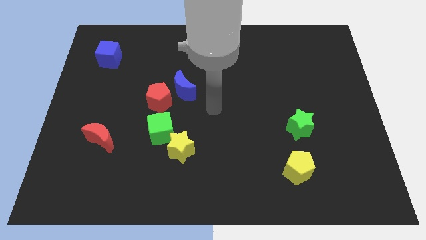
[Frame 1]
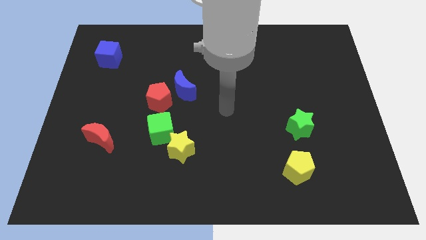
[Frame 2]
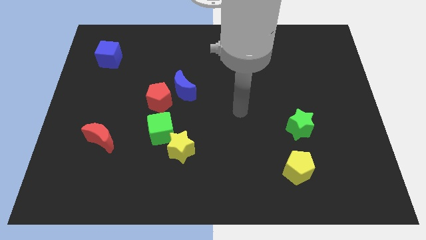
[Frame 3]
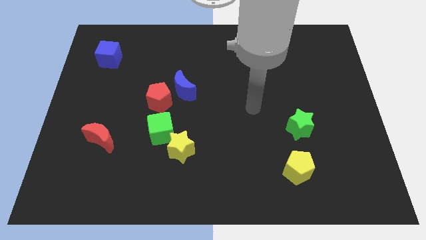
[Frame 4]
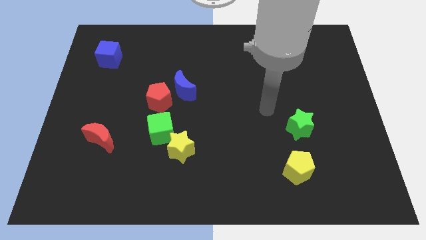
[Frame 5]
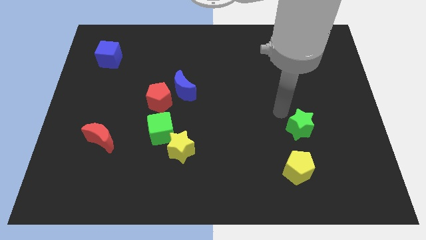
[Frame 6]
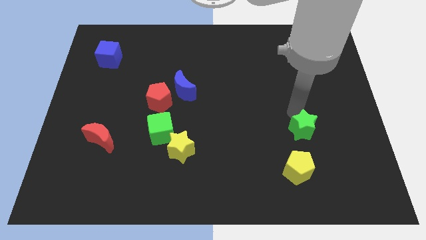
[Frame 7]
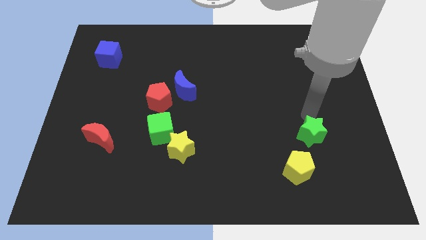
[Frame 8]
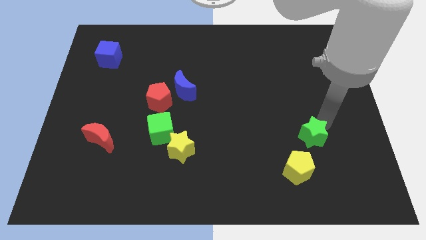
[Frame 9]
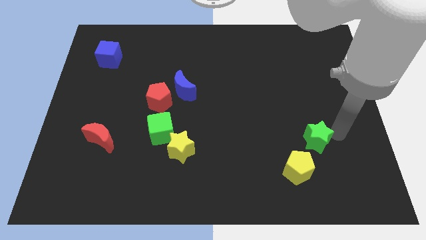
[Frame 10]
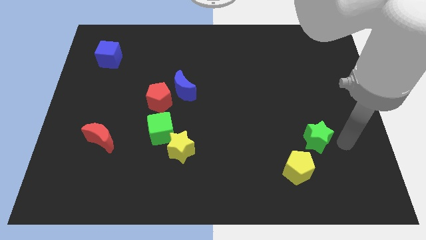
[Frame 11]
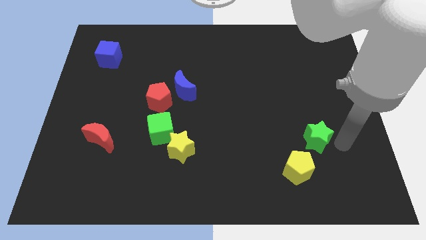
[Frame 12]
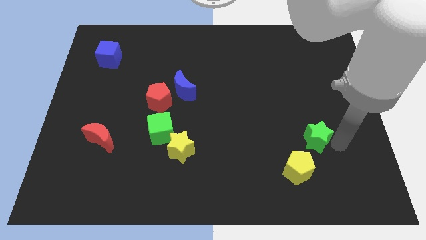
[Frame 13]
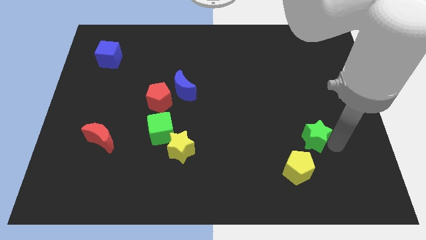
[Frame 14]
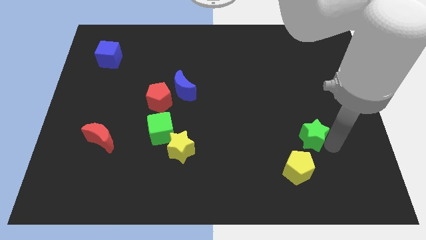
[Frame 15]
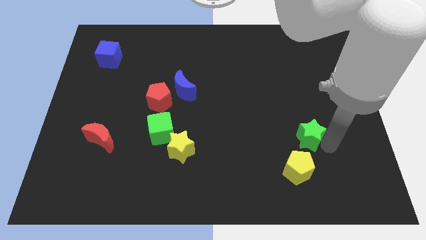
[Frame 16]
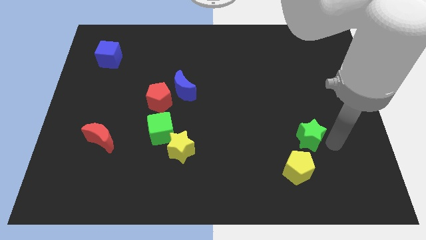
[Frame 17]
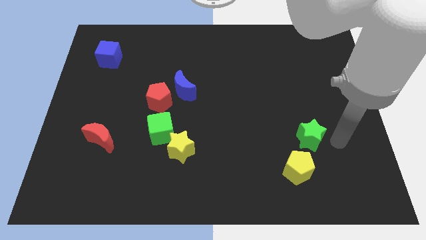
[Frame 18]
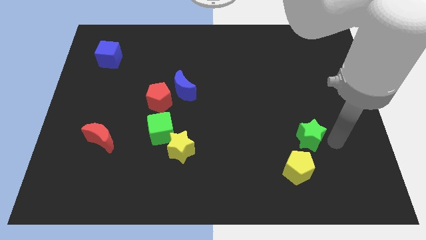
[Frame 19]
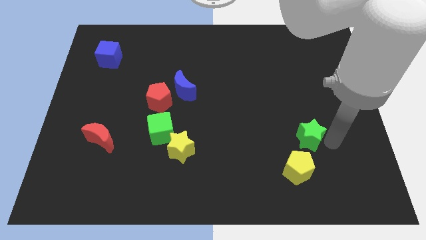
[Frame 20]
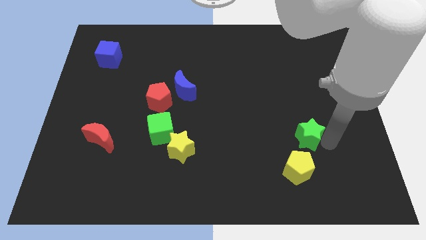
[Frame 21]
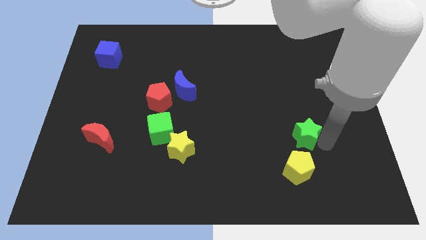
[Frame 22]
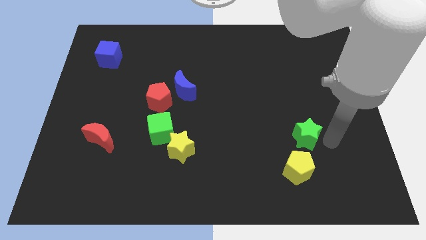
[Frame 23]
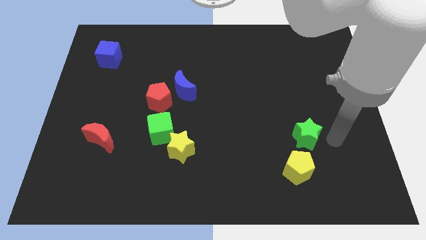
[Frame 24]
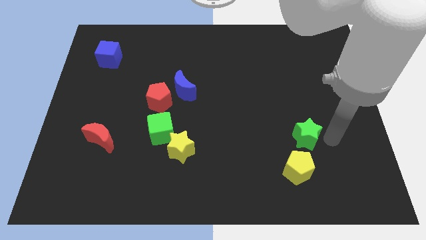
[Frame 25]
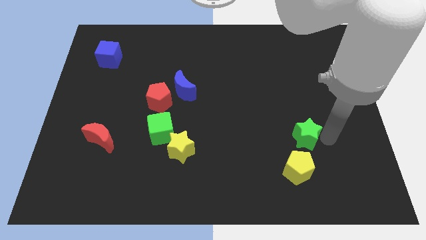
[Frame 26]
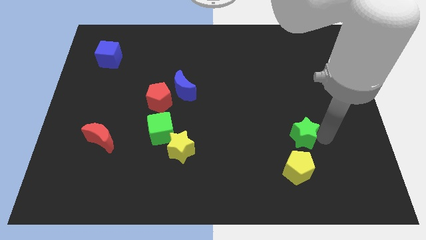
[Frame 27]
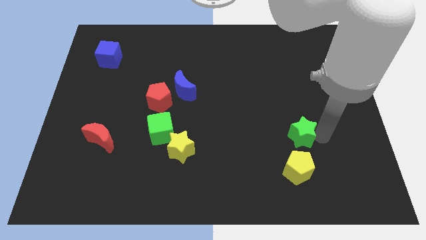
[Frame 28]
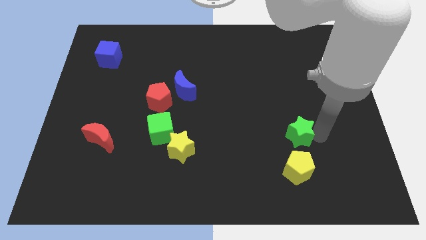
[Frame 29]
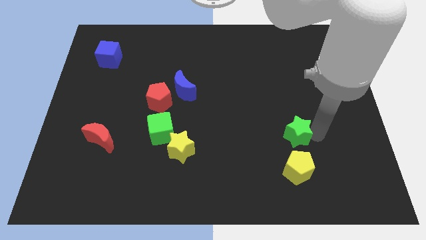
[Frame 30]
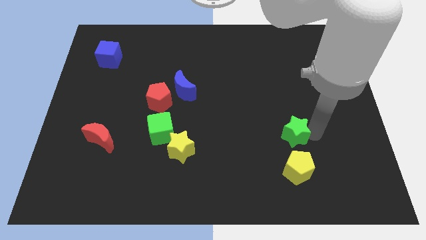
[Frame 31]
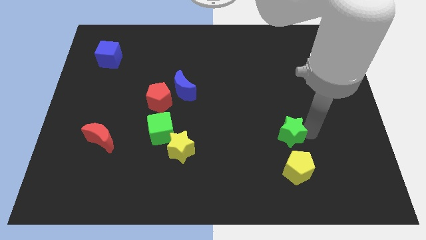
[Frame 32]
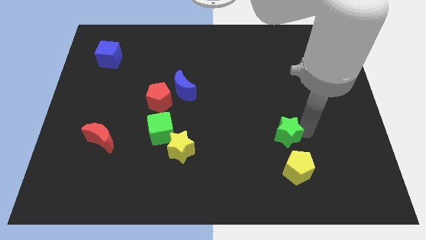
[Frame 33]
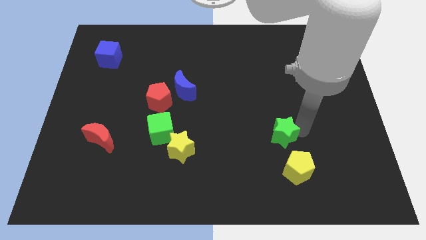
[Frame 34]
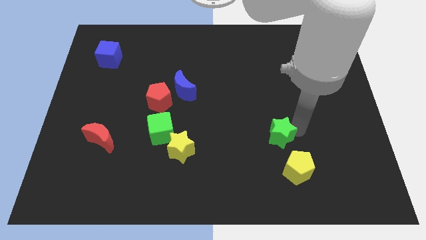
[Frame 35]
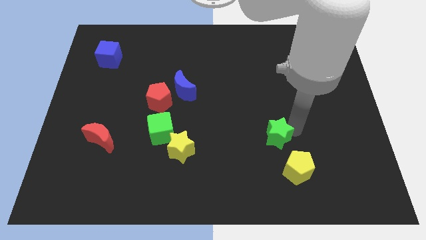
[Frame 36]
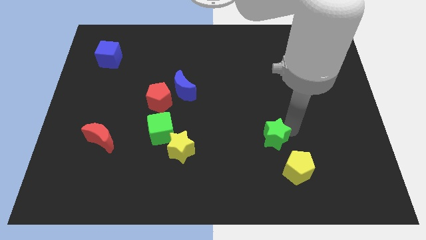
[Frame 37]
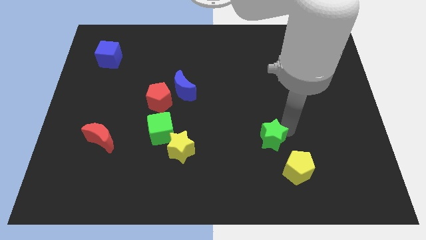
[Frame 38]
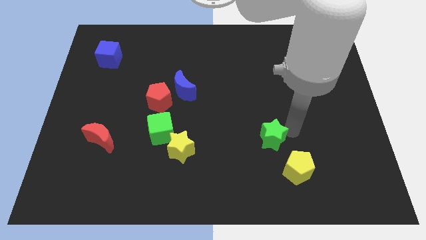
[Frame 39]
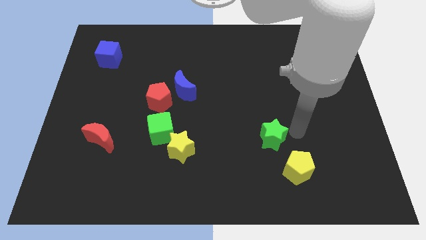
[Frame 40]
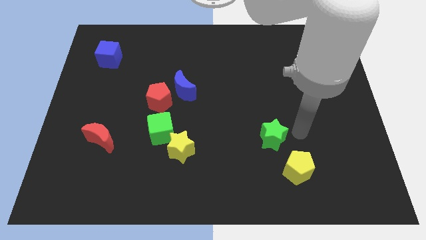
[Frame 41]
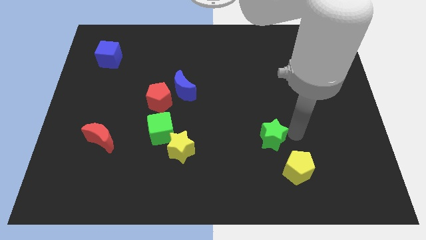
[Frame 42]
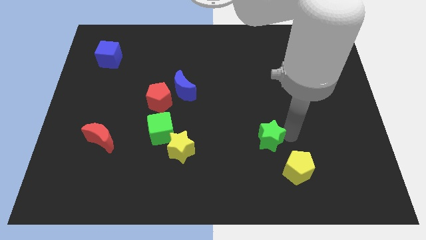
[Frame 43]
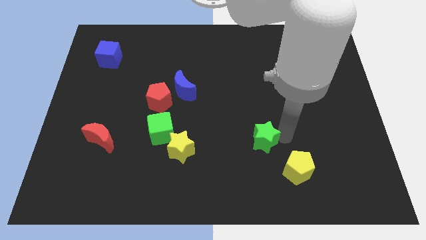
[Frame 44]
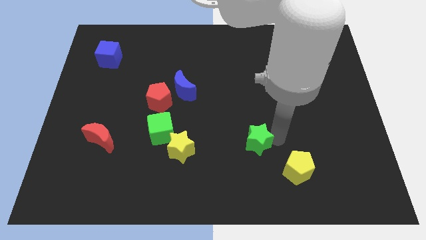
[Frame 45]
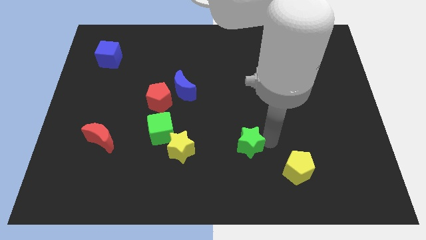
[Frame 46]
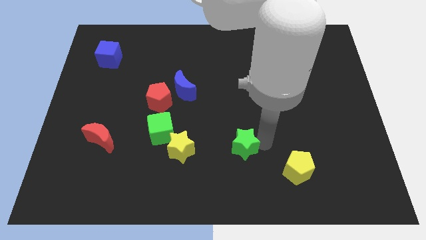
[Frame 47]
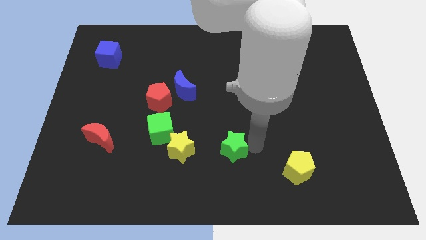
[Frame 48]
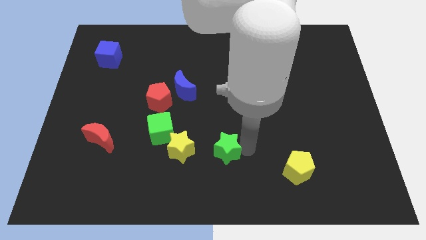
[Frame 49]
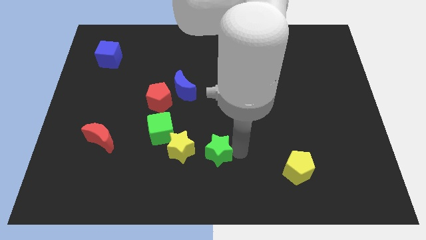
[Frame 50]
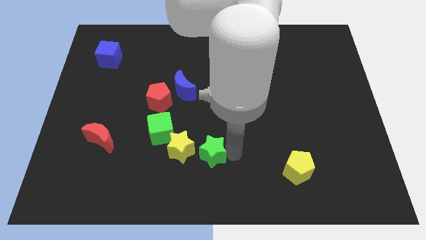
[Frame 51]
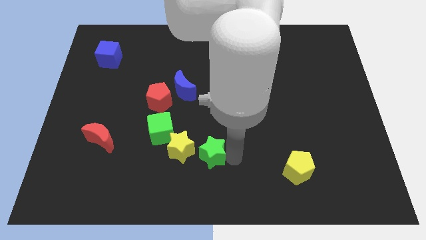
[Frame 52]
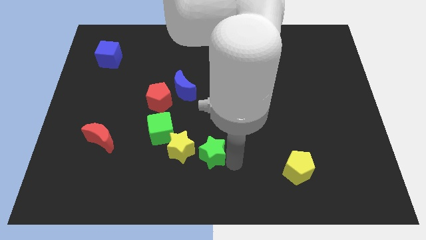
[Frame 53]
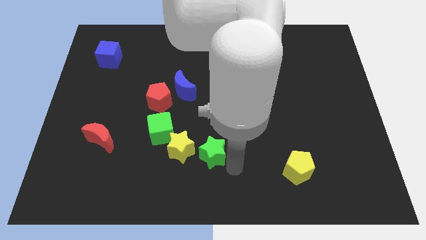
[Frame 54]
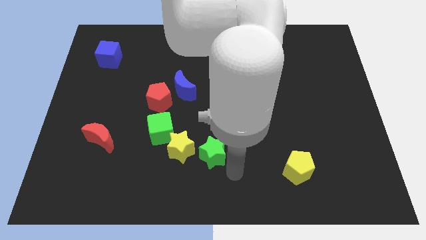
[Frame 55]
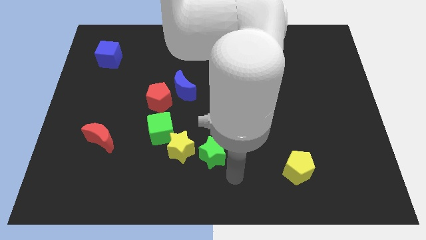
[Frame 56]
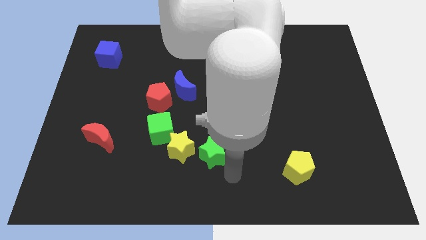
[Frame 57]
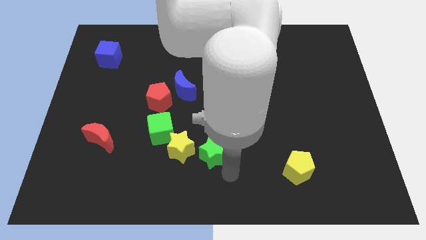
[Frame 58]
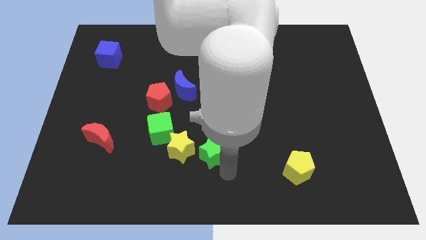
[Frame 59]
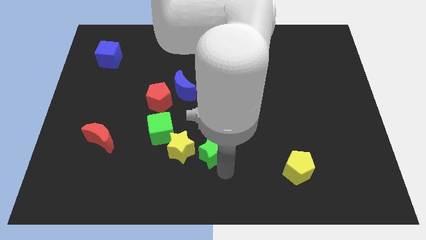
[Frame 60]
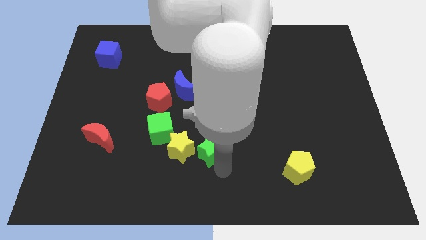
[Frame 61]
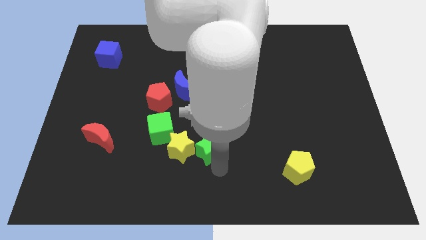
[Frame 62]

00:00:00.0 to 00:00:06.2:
put the green star to the yellow star

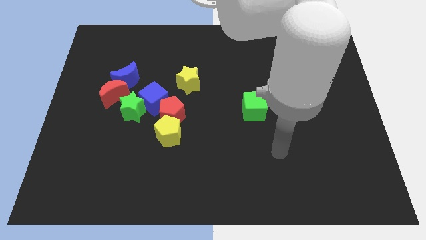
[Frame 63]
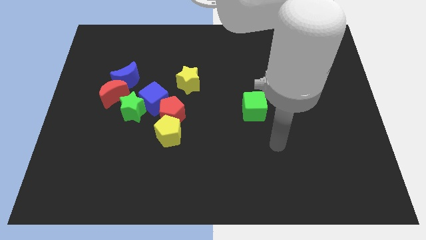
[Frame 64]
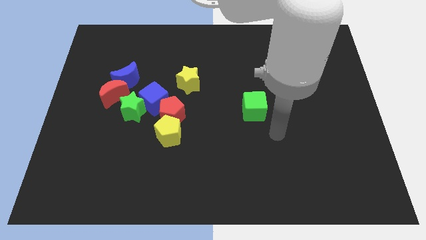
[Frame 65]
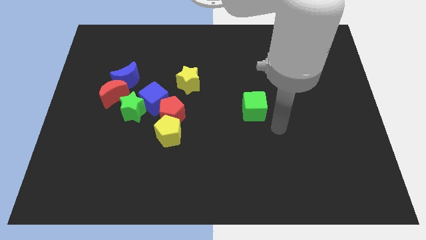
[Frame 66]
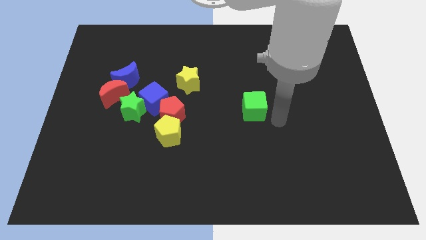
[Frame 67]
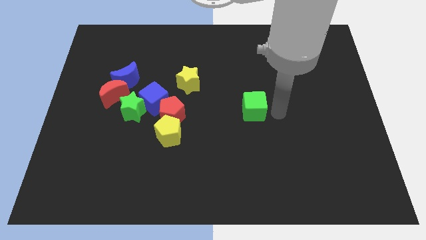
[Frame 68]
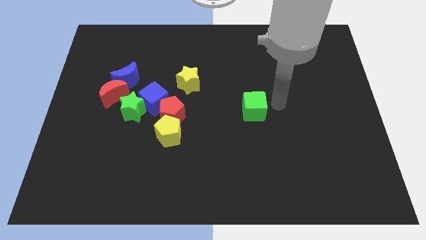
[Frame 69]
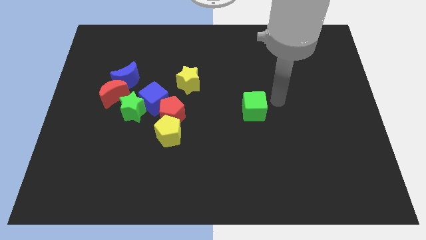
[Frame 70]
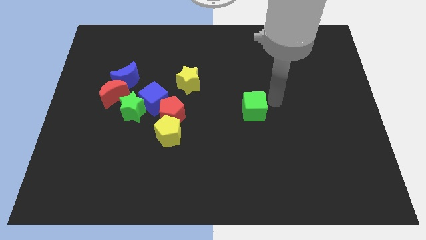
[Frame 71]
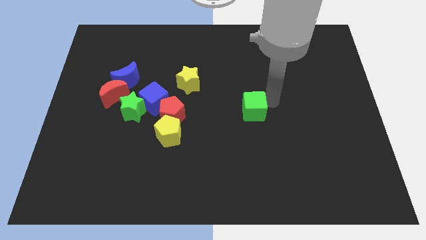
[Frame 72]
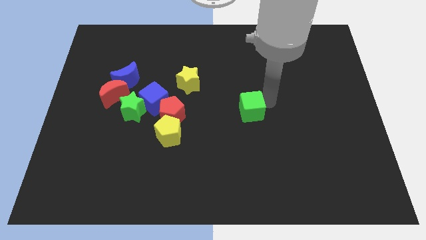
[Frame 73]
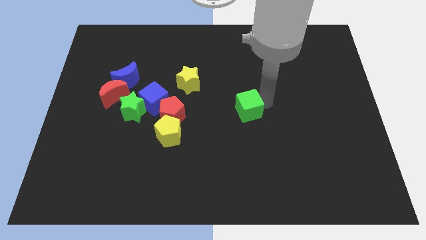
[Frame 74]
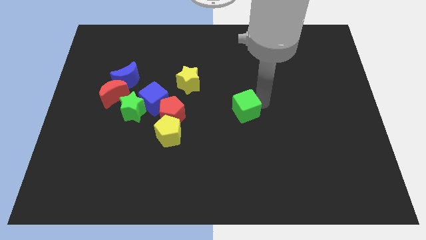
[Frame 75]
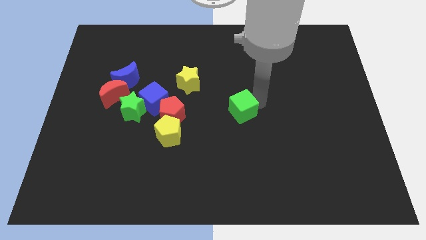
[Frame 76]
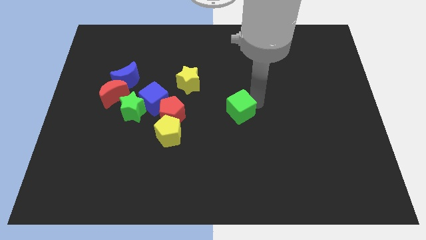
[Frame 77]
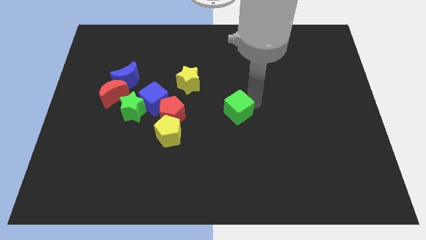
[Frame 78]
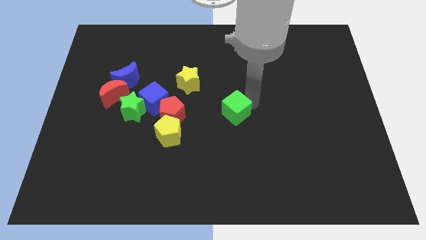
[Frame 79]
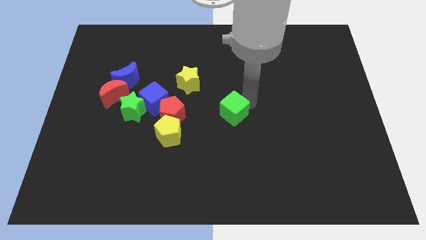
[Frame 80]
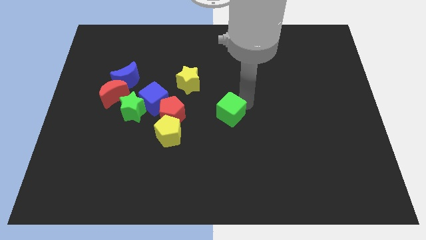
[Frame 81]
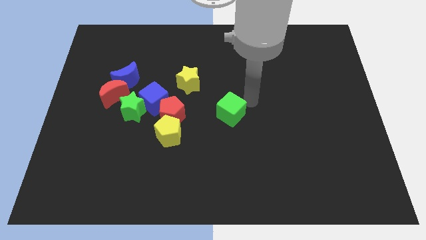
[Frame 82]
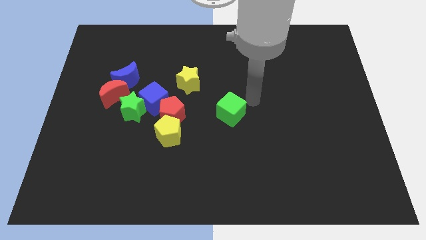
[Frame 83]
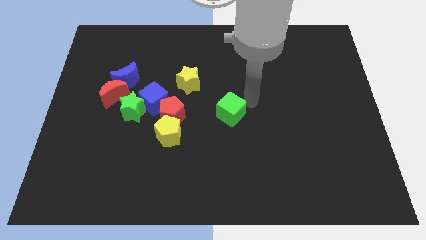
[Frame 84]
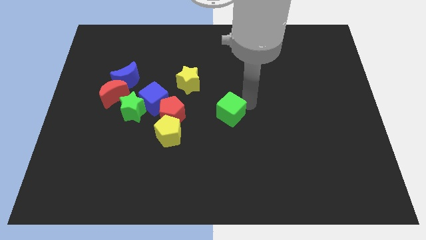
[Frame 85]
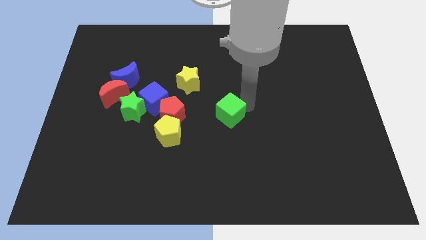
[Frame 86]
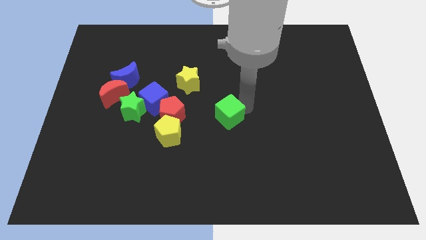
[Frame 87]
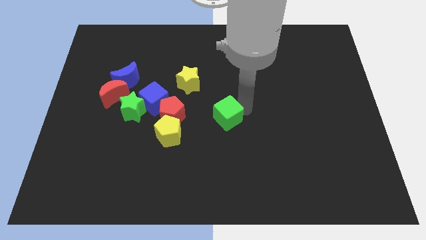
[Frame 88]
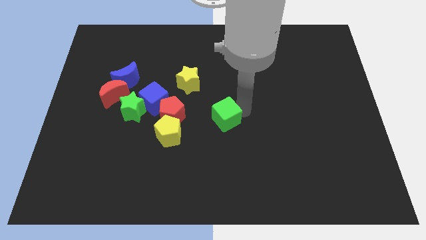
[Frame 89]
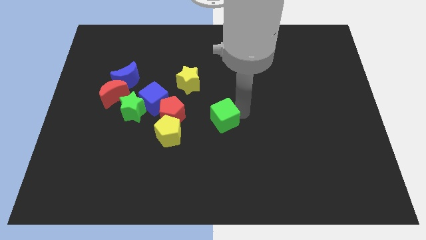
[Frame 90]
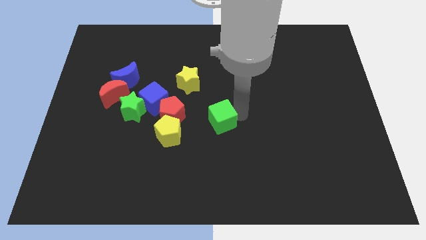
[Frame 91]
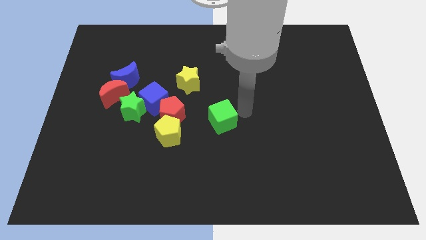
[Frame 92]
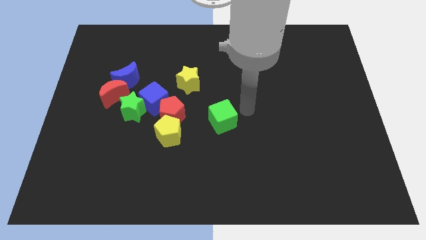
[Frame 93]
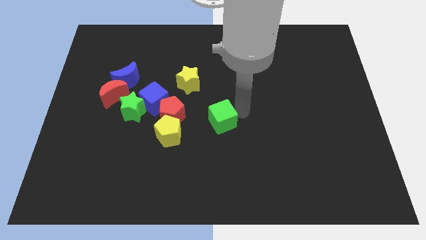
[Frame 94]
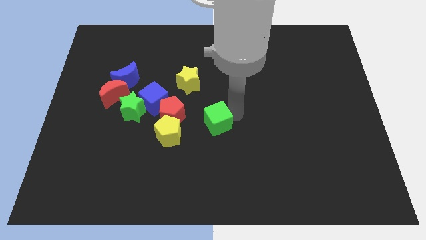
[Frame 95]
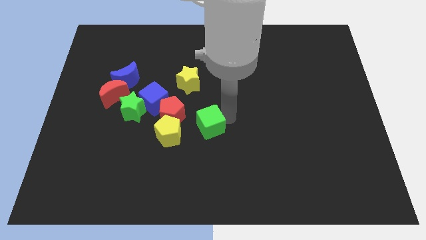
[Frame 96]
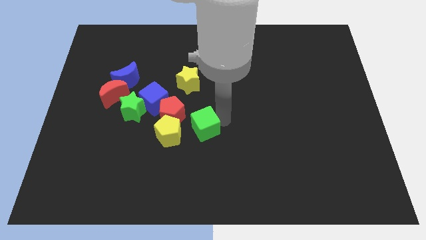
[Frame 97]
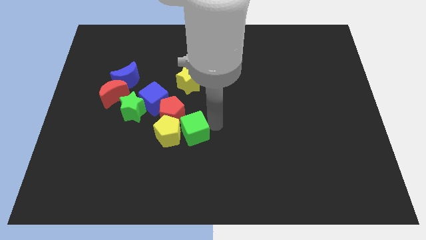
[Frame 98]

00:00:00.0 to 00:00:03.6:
move the green cube to the yellow pentagon
